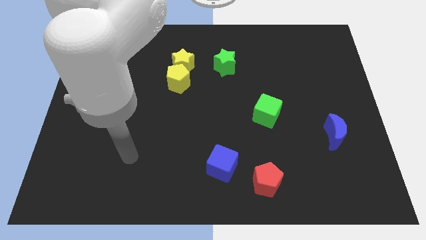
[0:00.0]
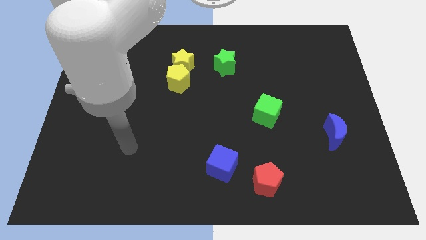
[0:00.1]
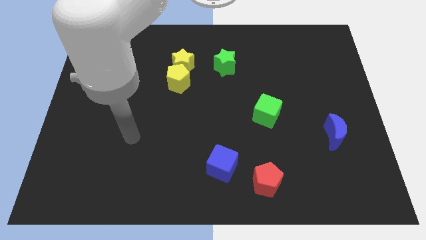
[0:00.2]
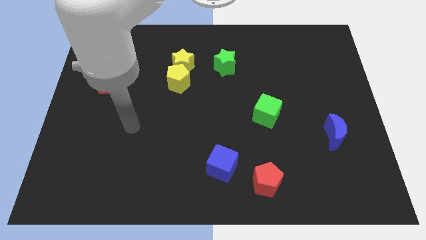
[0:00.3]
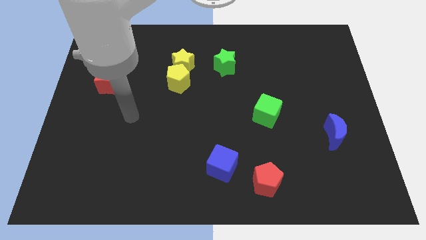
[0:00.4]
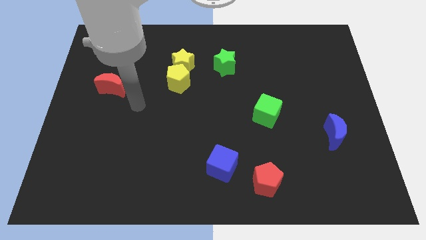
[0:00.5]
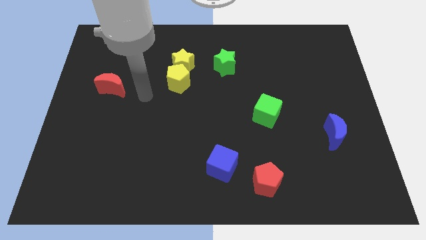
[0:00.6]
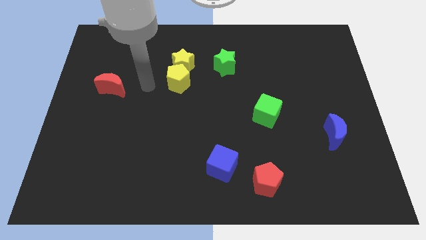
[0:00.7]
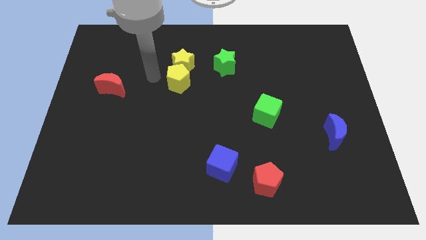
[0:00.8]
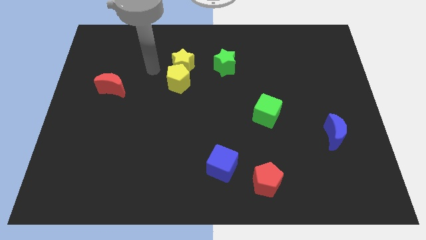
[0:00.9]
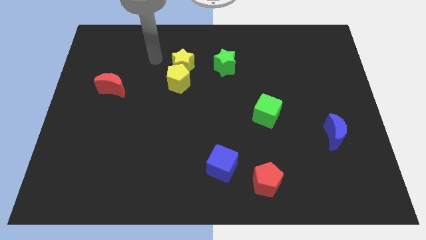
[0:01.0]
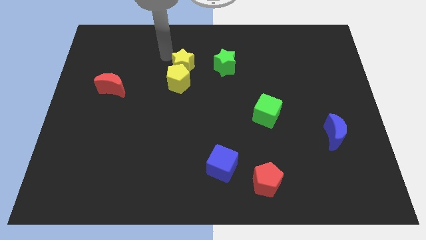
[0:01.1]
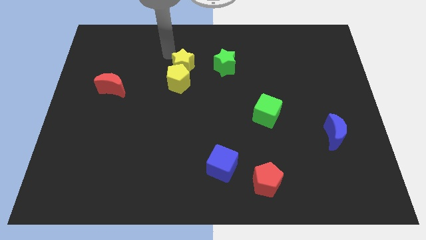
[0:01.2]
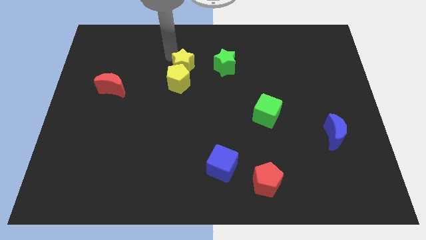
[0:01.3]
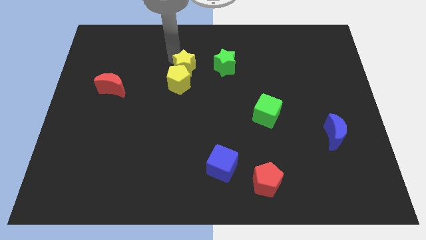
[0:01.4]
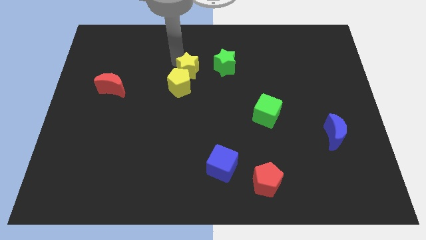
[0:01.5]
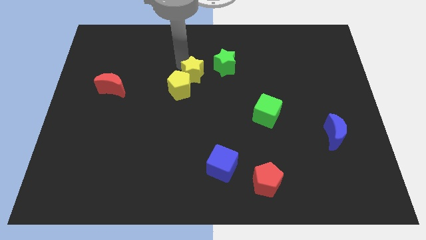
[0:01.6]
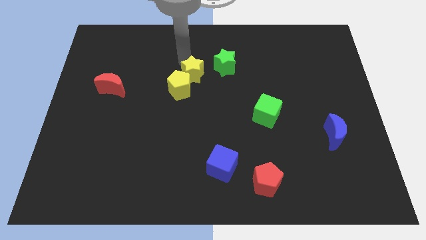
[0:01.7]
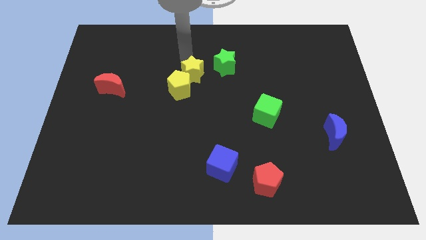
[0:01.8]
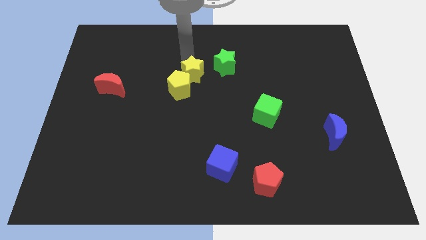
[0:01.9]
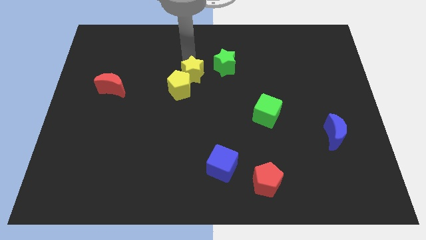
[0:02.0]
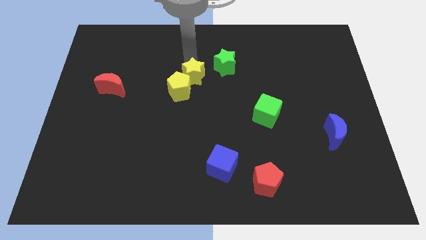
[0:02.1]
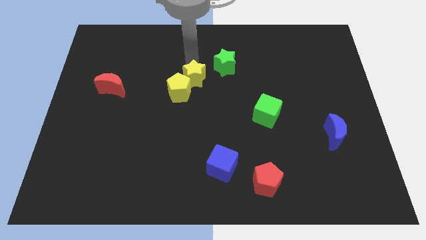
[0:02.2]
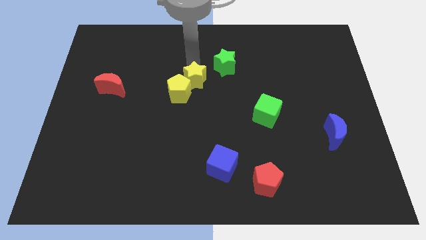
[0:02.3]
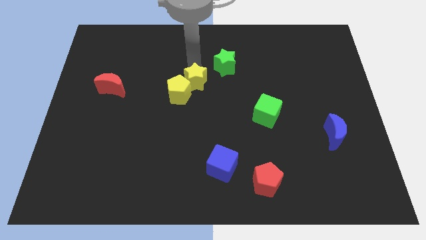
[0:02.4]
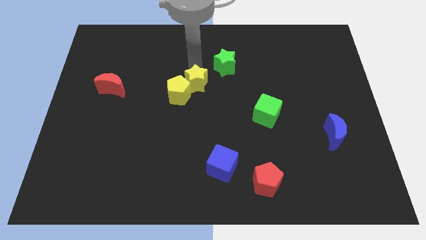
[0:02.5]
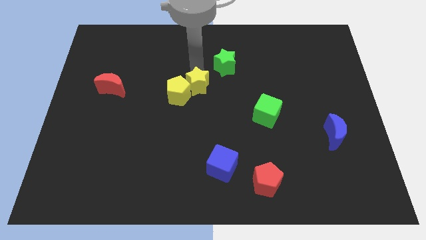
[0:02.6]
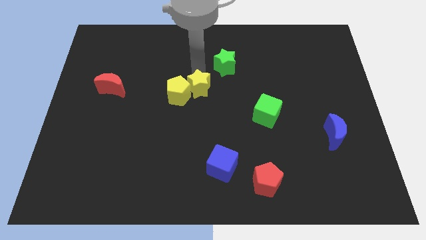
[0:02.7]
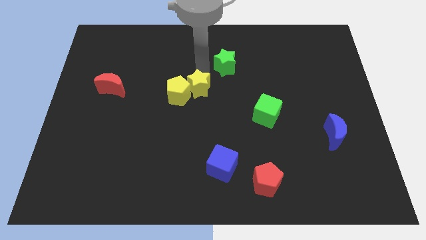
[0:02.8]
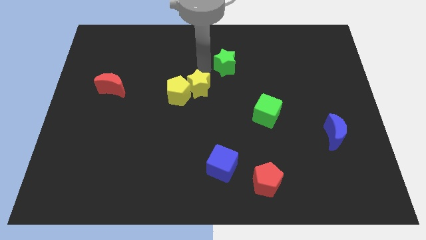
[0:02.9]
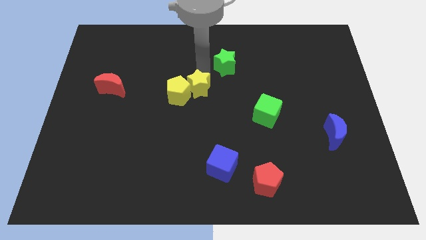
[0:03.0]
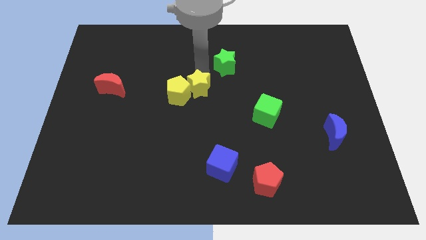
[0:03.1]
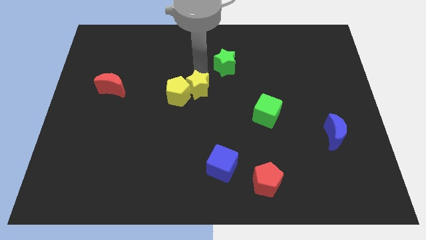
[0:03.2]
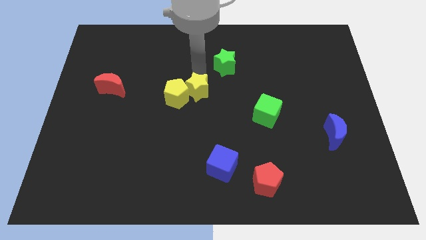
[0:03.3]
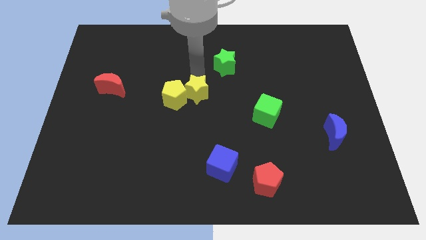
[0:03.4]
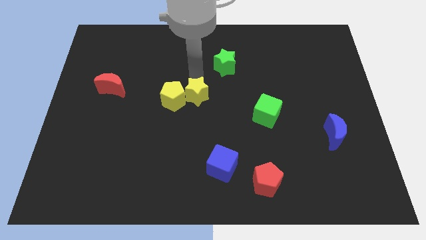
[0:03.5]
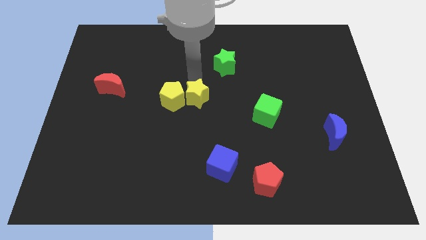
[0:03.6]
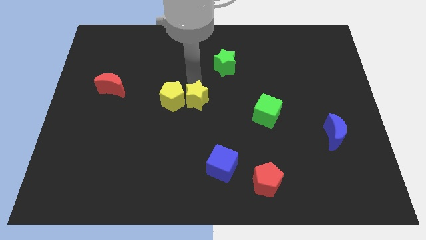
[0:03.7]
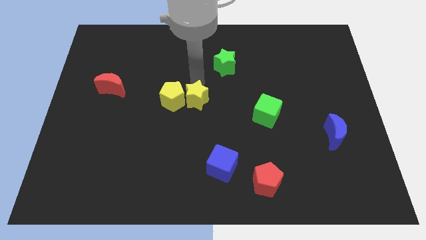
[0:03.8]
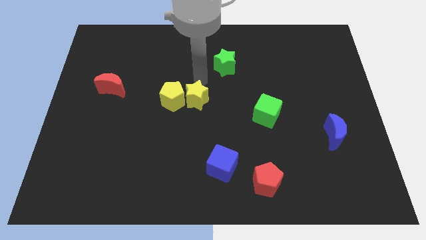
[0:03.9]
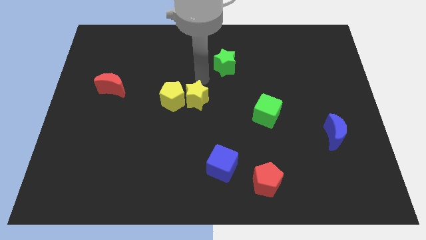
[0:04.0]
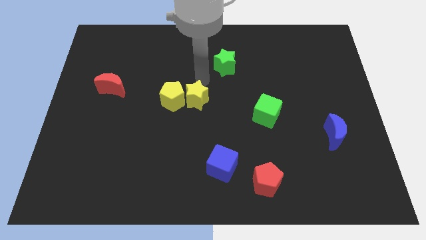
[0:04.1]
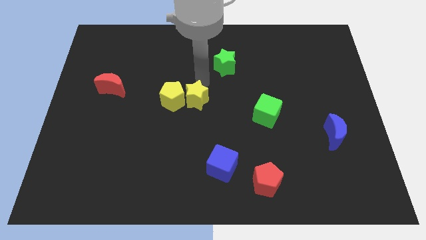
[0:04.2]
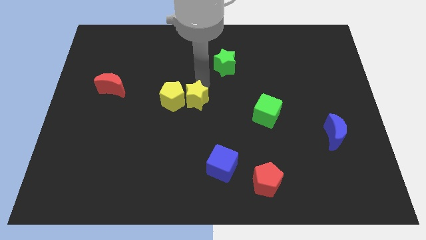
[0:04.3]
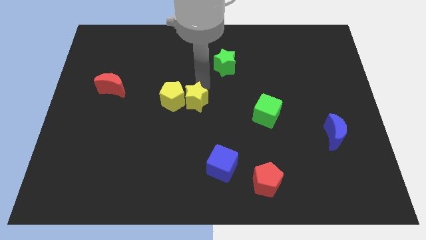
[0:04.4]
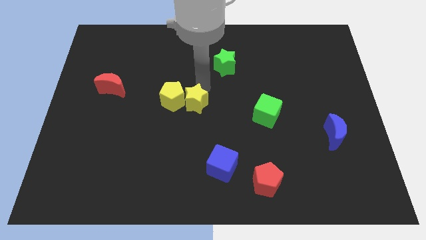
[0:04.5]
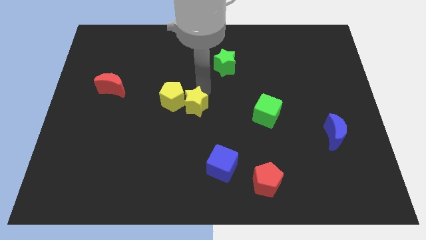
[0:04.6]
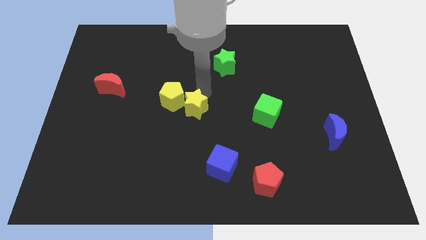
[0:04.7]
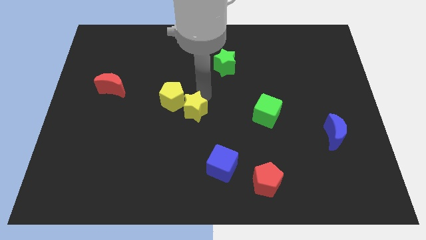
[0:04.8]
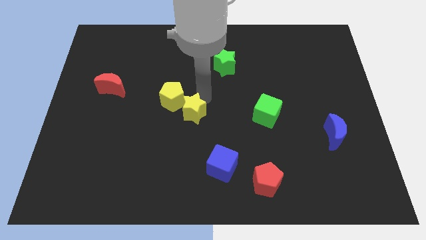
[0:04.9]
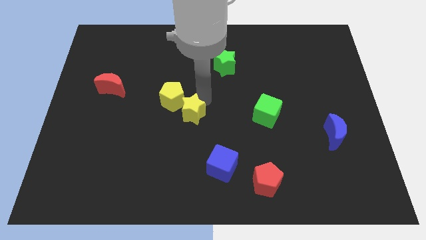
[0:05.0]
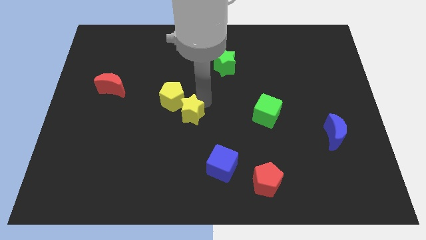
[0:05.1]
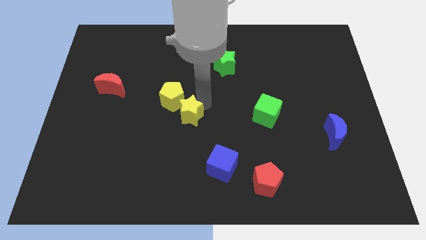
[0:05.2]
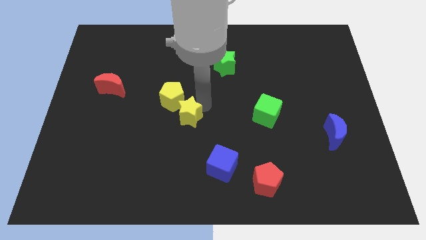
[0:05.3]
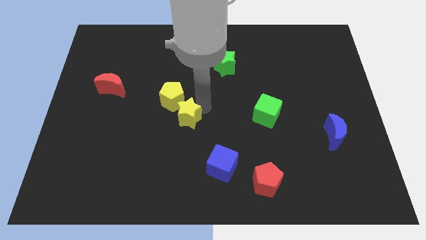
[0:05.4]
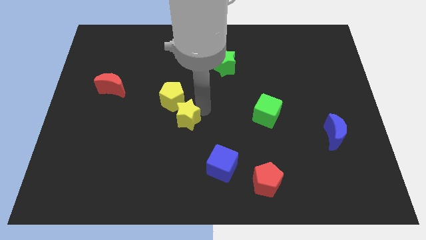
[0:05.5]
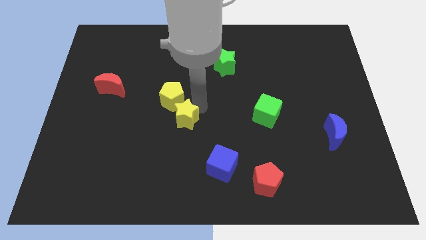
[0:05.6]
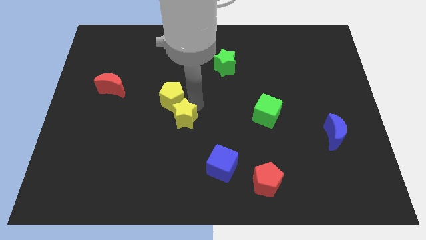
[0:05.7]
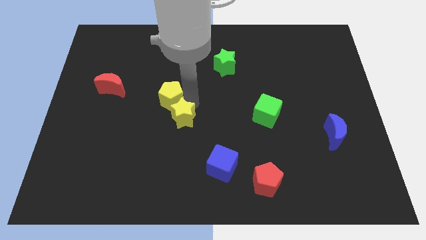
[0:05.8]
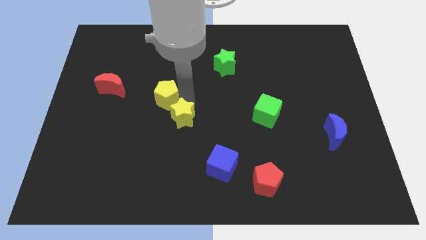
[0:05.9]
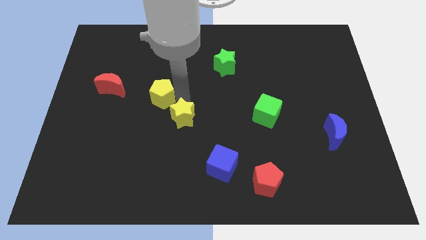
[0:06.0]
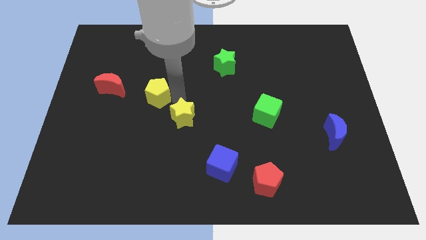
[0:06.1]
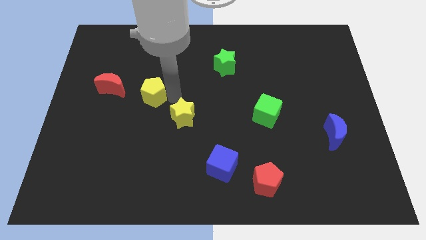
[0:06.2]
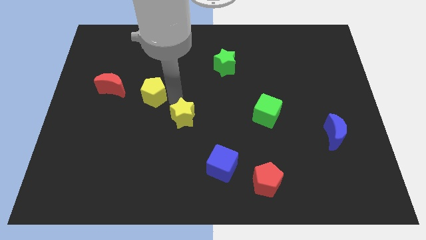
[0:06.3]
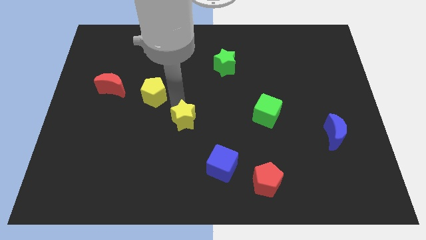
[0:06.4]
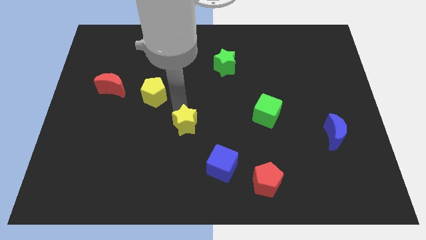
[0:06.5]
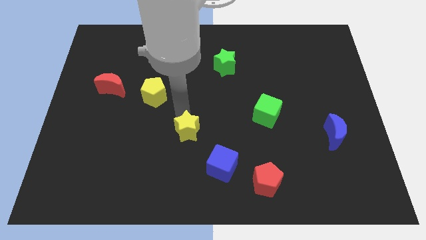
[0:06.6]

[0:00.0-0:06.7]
move the yellow star to the top left side of the blue cube
